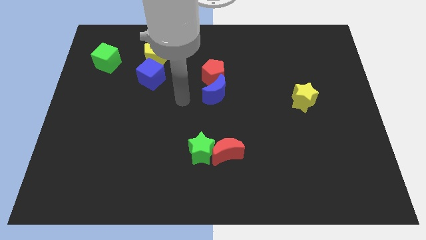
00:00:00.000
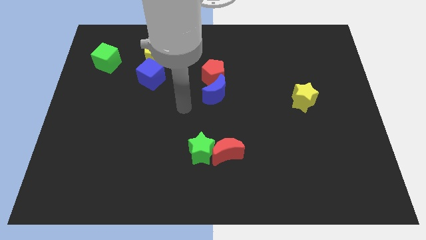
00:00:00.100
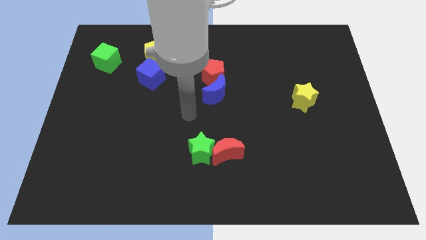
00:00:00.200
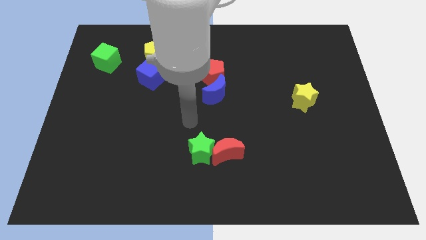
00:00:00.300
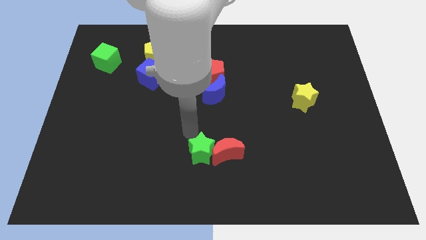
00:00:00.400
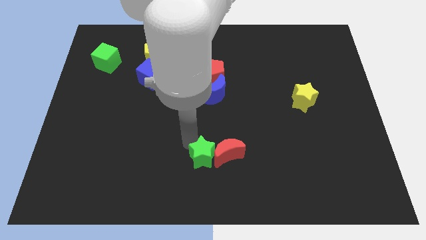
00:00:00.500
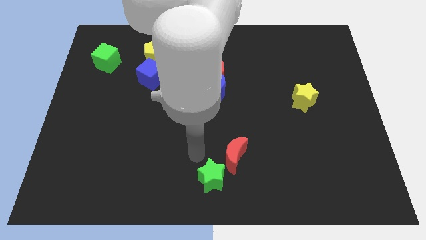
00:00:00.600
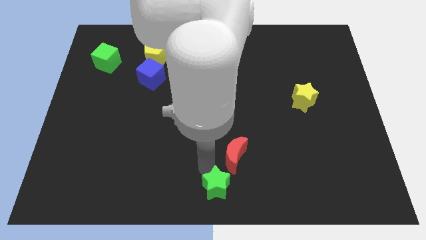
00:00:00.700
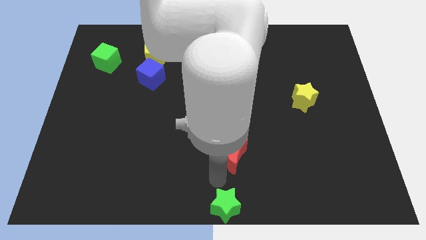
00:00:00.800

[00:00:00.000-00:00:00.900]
move the red moon away from the green star

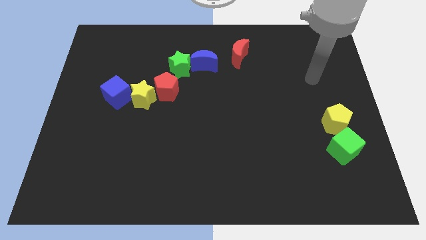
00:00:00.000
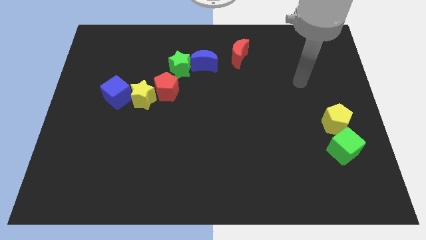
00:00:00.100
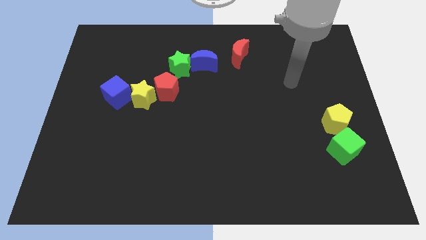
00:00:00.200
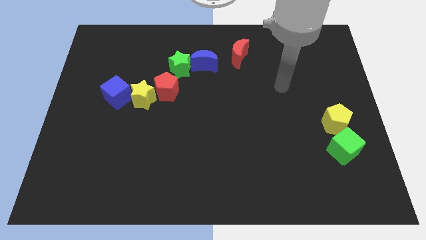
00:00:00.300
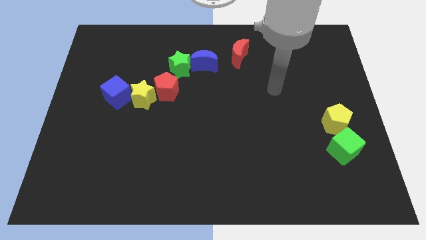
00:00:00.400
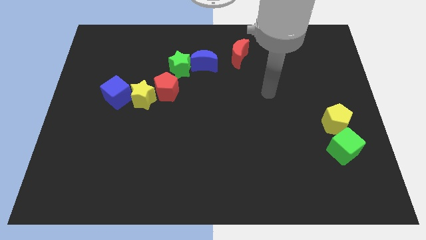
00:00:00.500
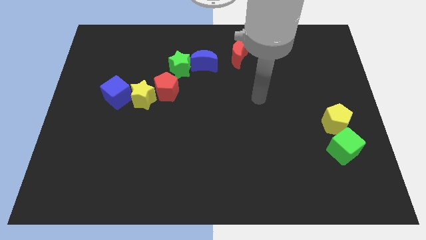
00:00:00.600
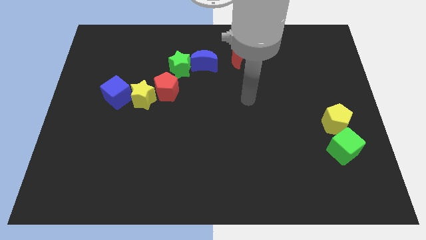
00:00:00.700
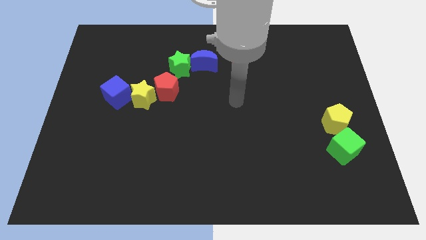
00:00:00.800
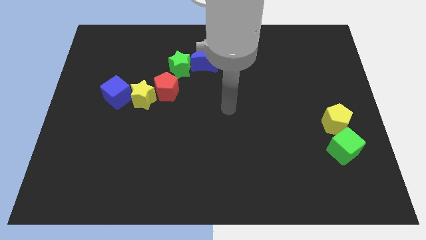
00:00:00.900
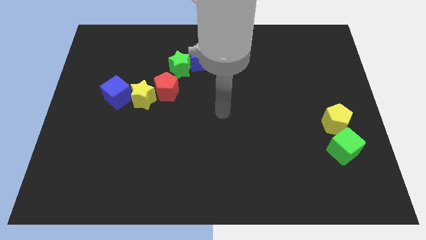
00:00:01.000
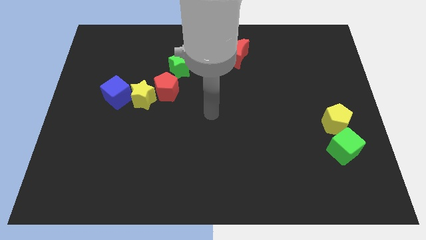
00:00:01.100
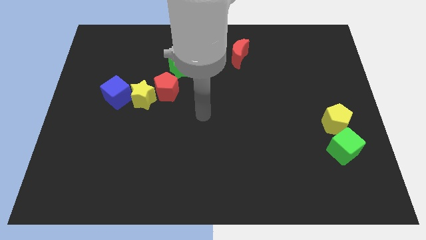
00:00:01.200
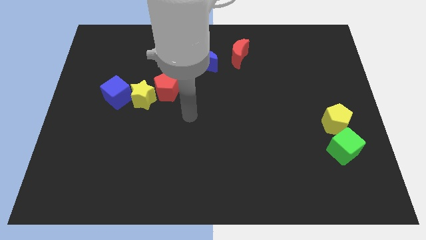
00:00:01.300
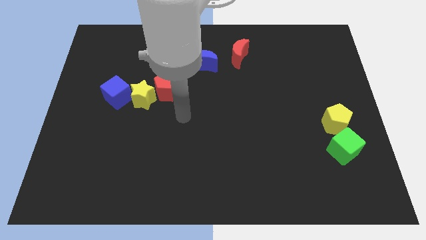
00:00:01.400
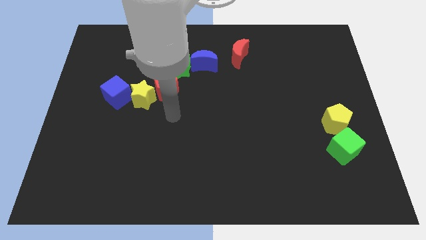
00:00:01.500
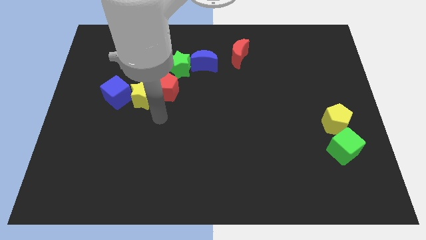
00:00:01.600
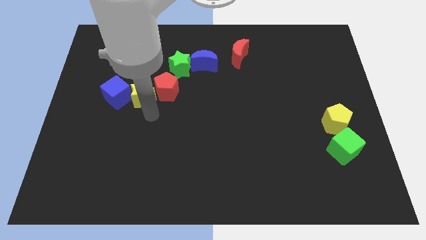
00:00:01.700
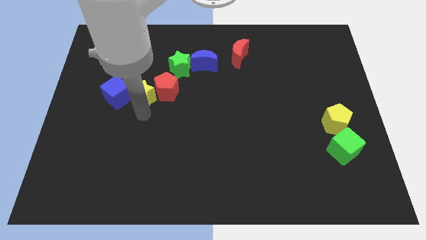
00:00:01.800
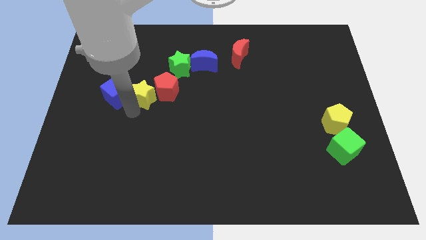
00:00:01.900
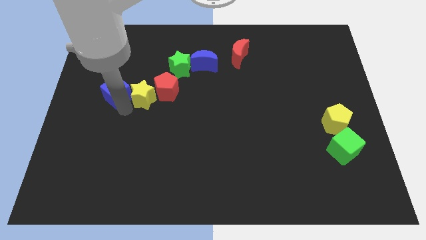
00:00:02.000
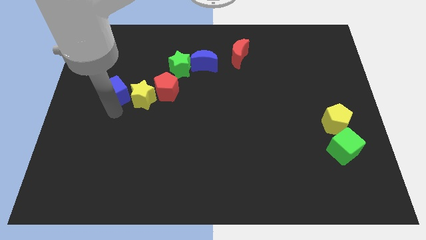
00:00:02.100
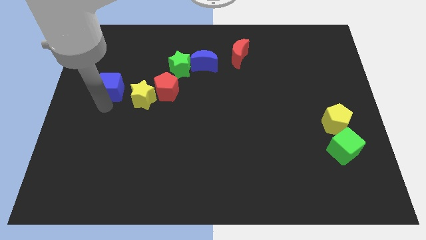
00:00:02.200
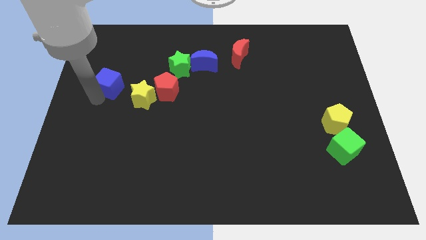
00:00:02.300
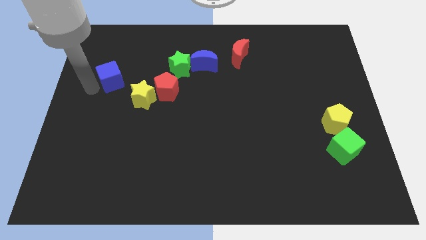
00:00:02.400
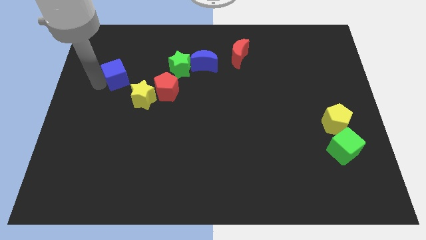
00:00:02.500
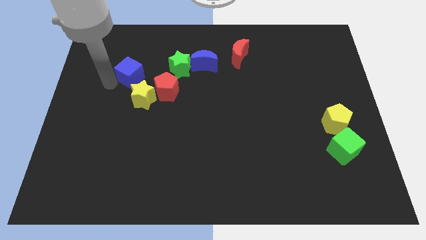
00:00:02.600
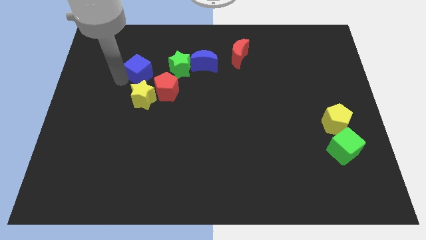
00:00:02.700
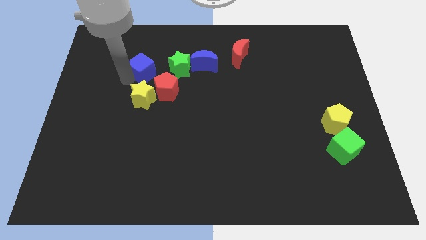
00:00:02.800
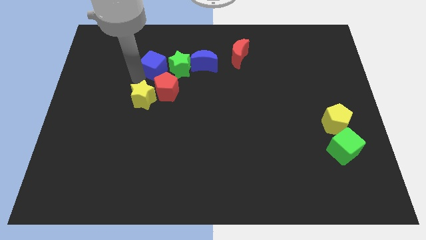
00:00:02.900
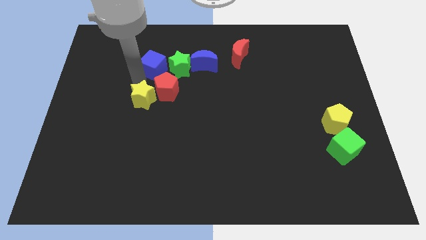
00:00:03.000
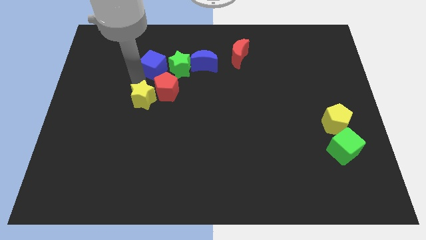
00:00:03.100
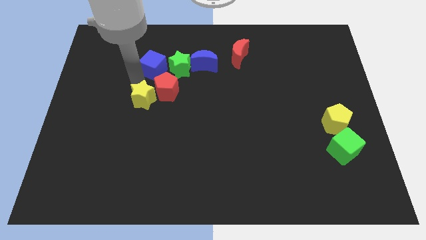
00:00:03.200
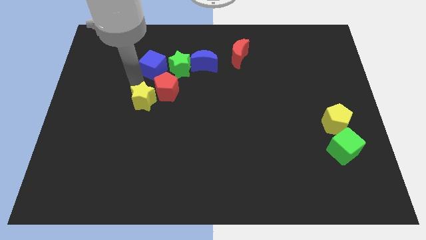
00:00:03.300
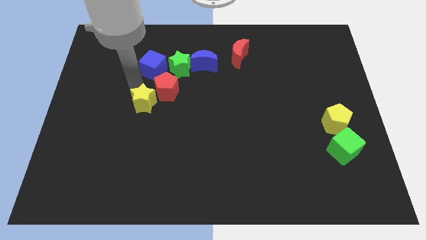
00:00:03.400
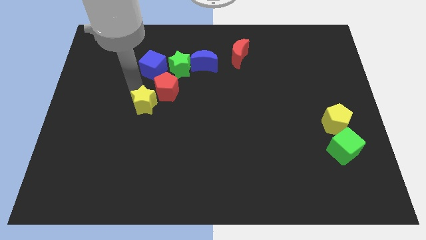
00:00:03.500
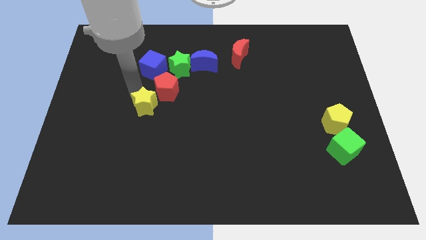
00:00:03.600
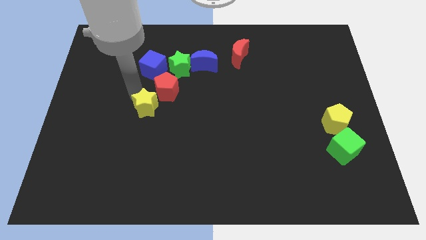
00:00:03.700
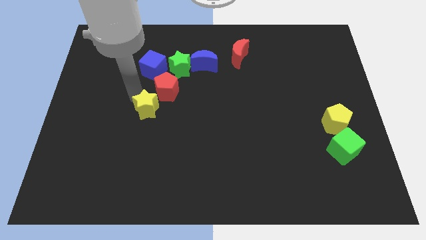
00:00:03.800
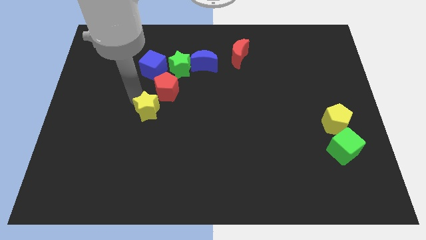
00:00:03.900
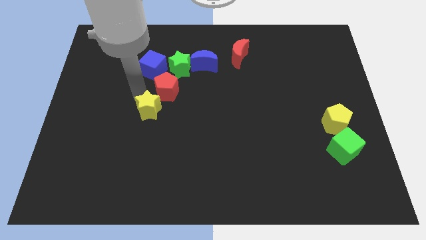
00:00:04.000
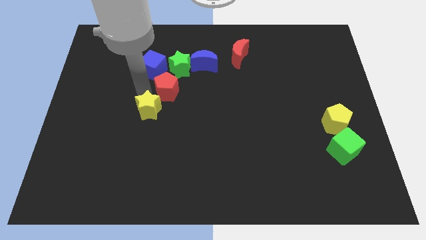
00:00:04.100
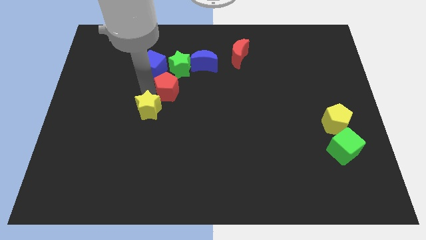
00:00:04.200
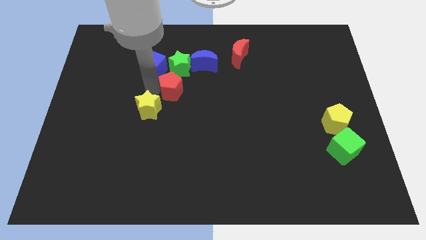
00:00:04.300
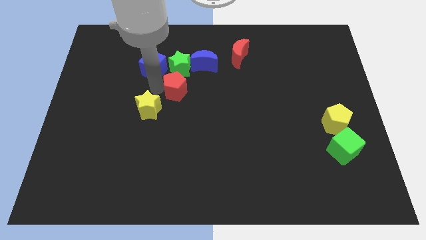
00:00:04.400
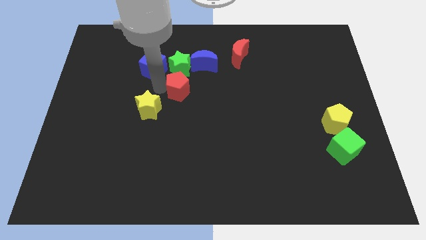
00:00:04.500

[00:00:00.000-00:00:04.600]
separate the yellow star from the red pentagon and blue cube

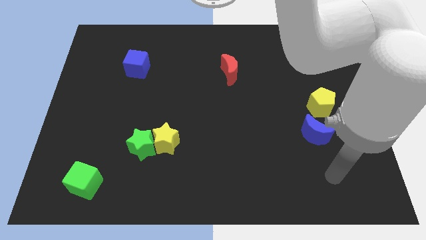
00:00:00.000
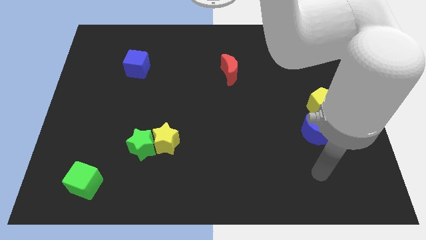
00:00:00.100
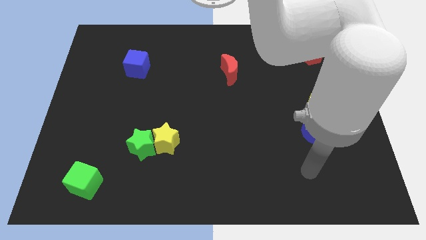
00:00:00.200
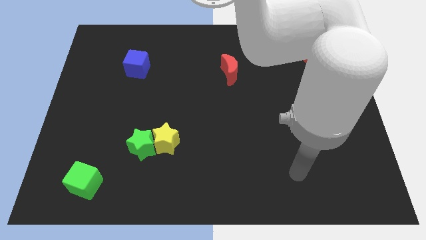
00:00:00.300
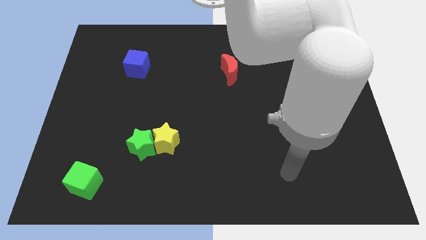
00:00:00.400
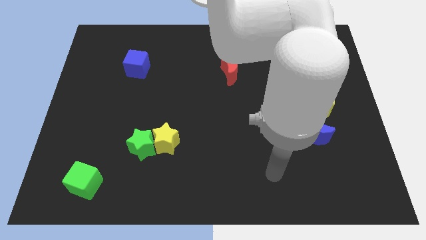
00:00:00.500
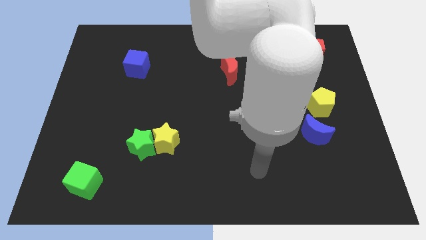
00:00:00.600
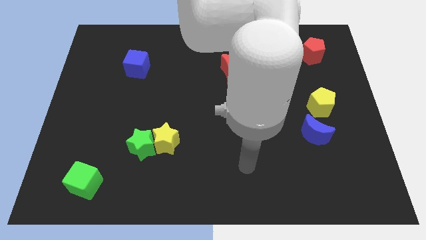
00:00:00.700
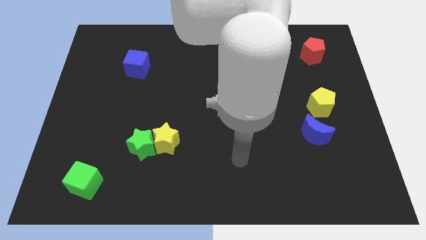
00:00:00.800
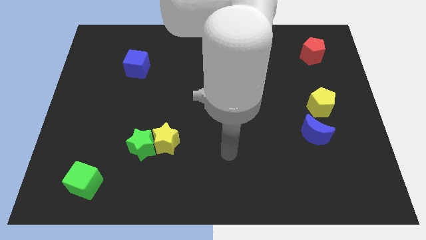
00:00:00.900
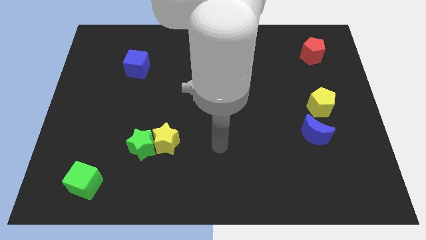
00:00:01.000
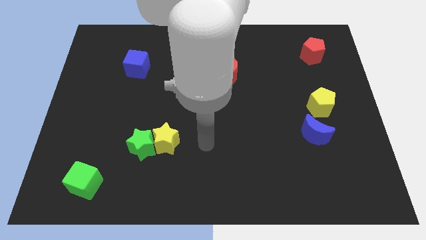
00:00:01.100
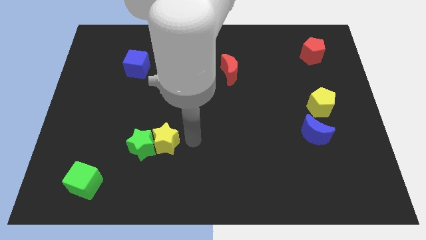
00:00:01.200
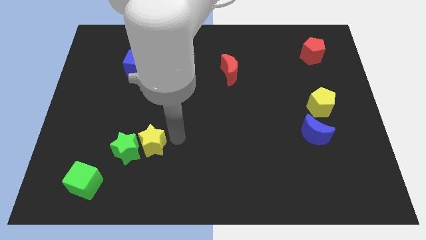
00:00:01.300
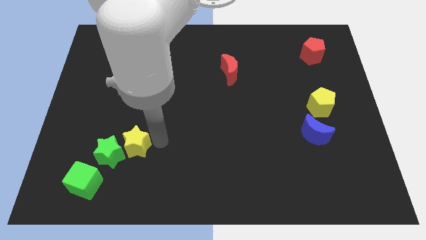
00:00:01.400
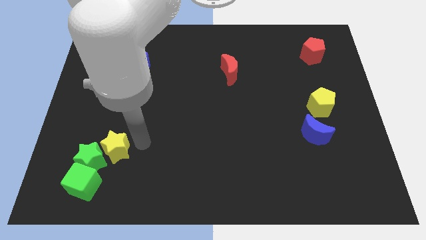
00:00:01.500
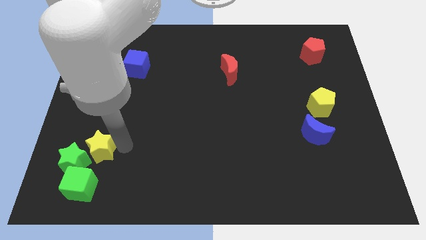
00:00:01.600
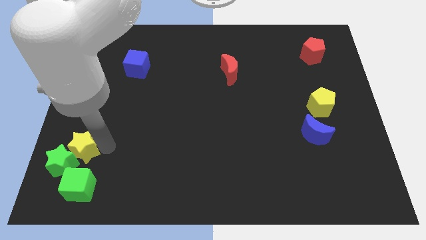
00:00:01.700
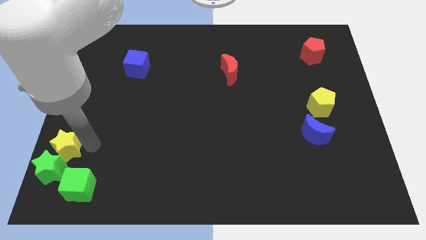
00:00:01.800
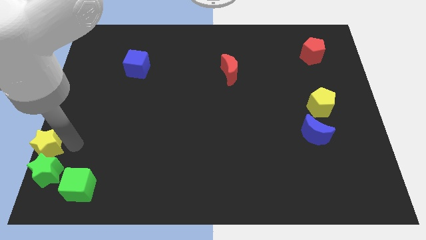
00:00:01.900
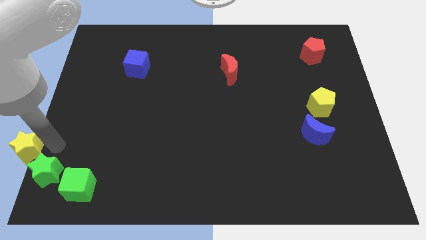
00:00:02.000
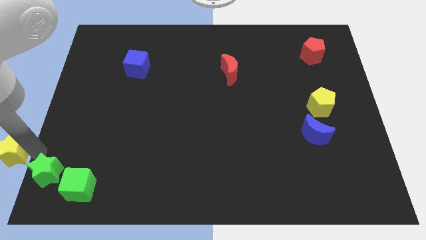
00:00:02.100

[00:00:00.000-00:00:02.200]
move the green star away from the yellow star

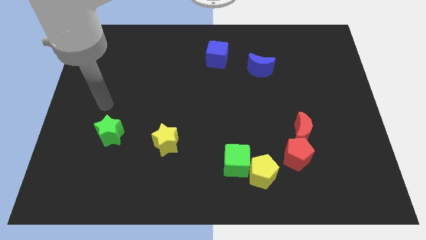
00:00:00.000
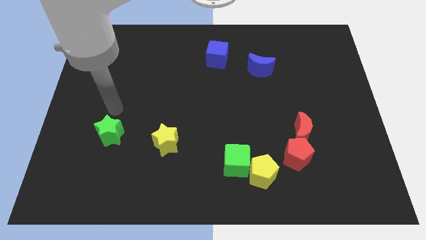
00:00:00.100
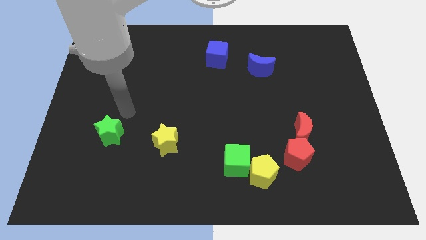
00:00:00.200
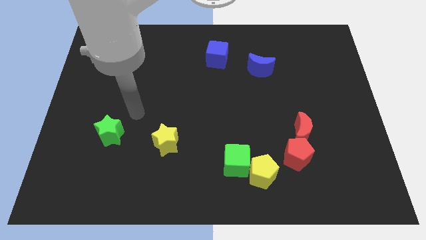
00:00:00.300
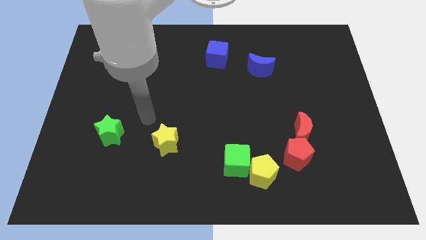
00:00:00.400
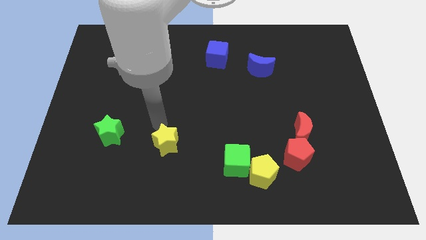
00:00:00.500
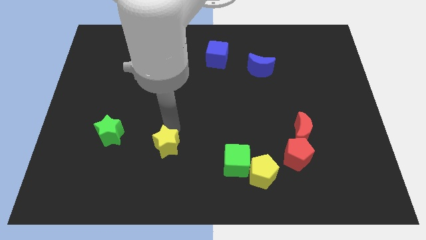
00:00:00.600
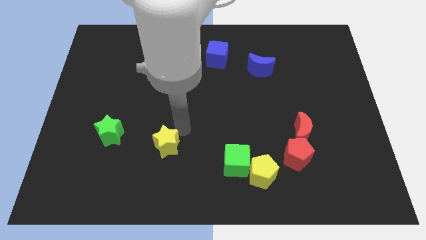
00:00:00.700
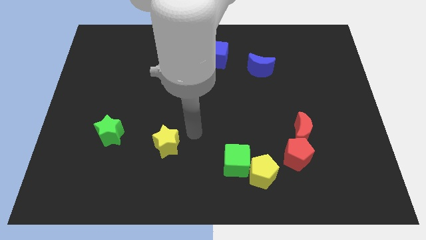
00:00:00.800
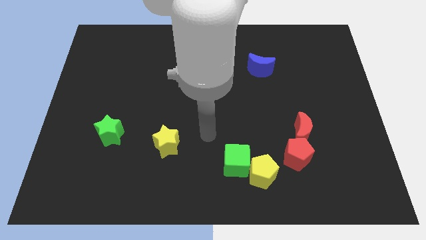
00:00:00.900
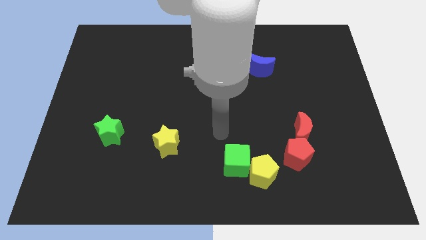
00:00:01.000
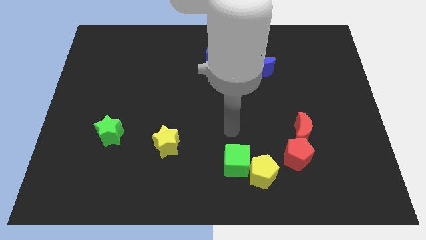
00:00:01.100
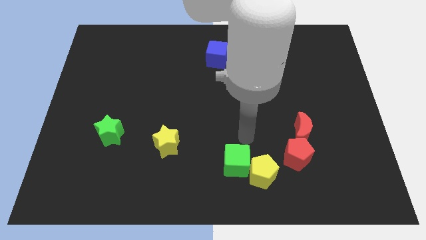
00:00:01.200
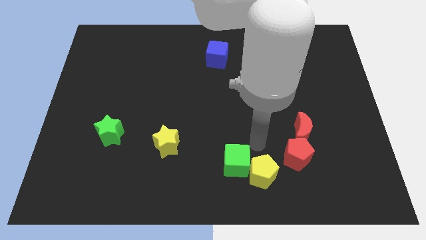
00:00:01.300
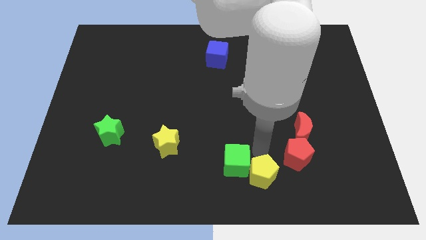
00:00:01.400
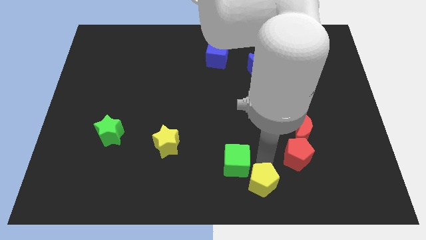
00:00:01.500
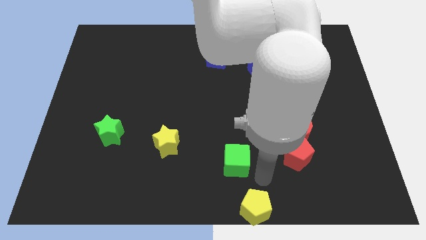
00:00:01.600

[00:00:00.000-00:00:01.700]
separate the green cube from the yellow pentagon
